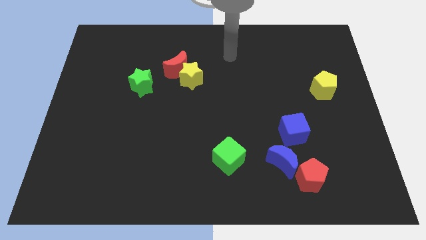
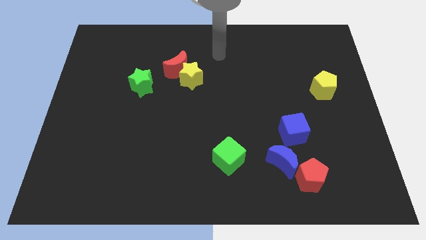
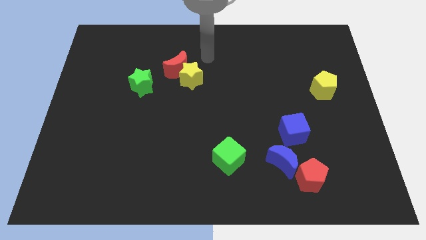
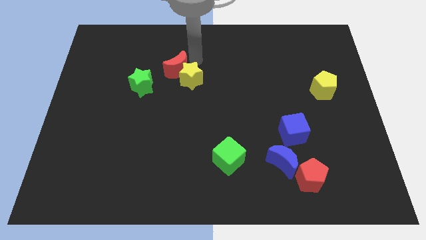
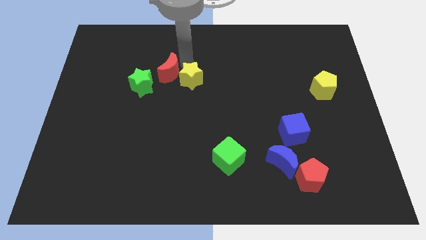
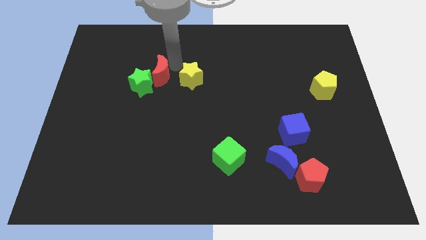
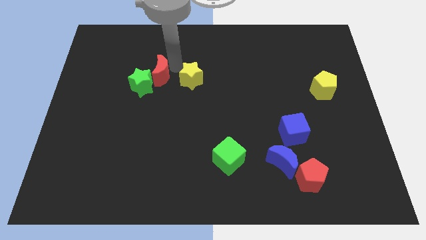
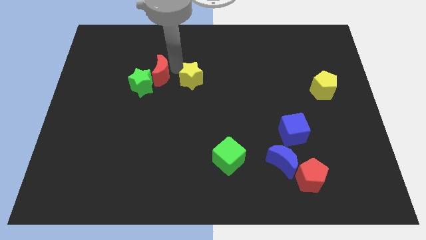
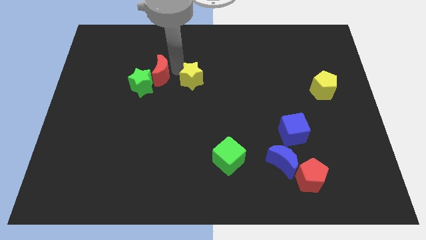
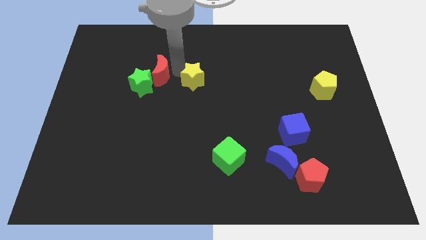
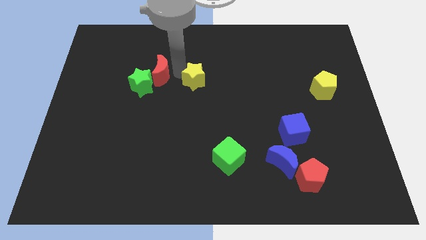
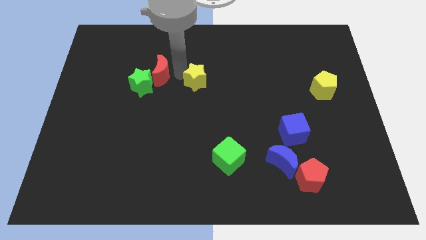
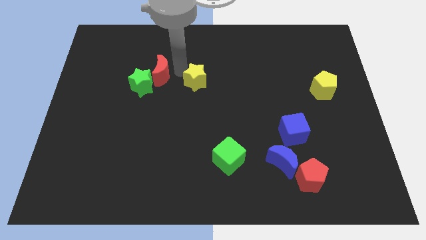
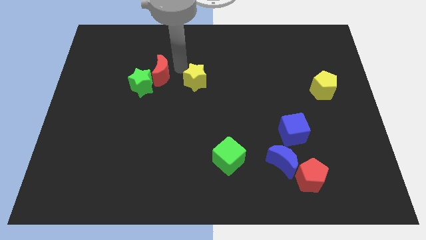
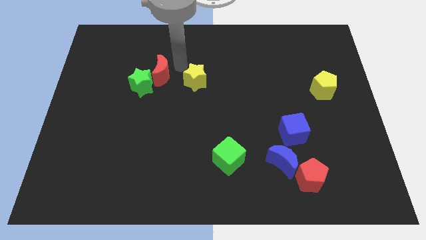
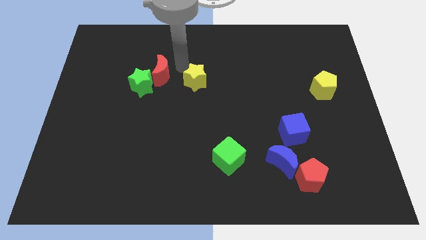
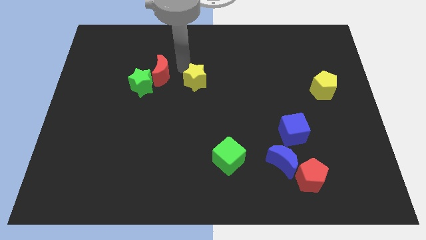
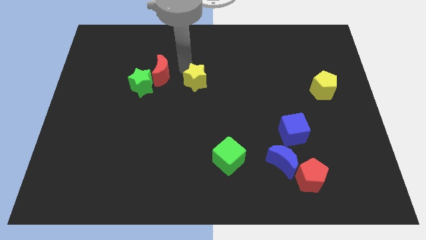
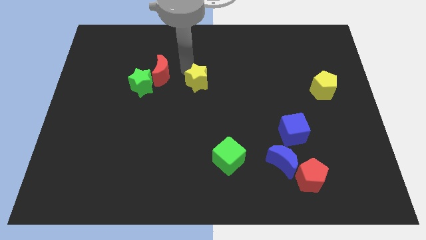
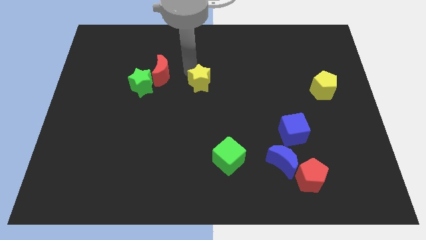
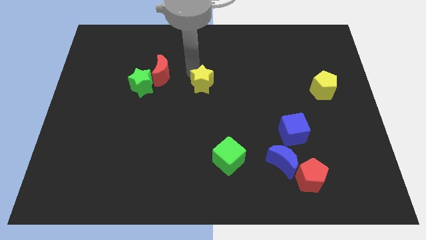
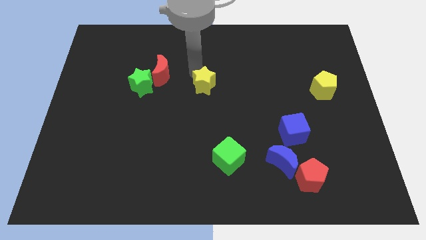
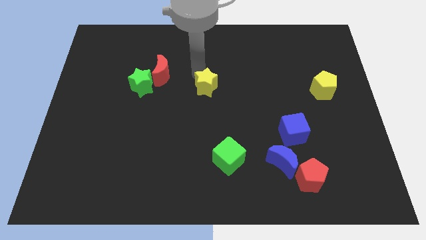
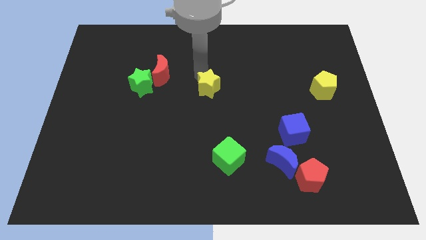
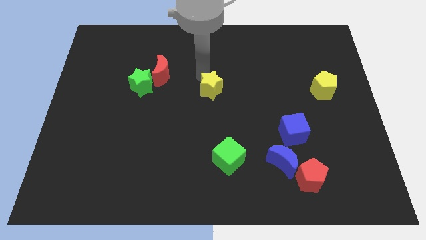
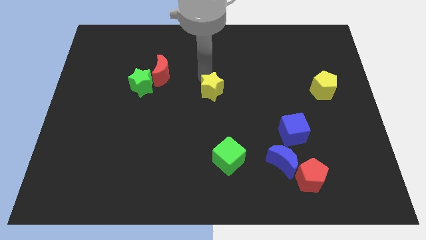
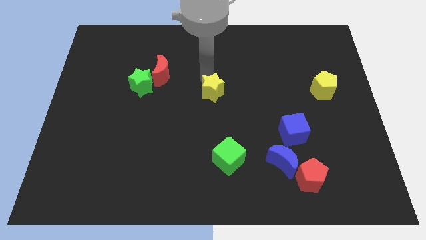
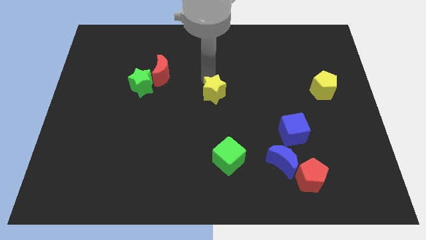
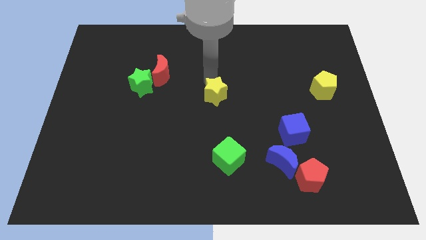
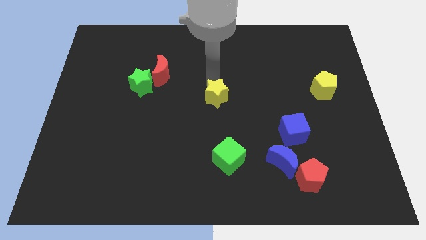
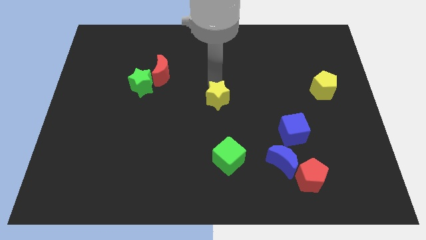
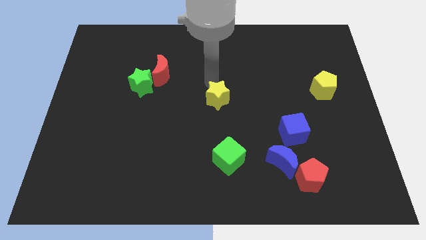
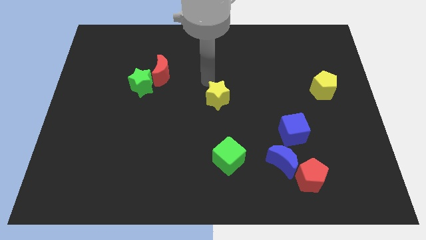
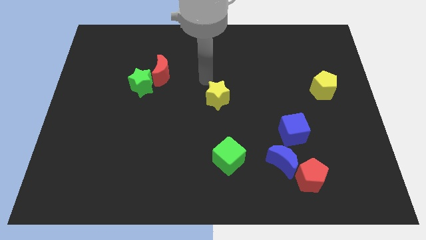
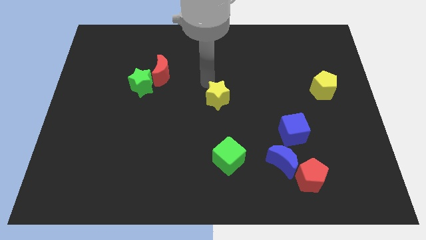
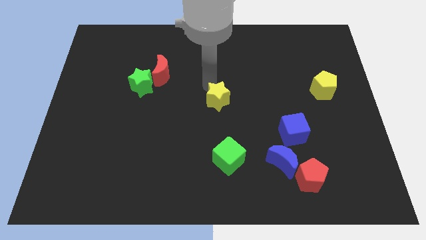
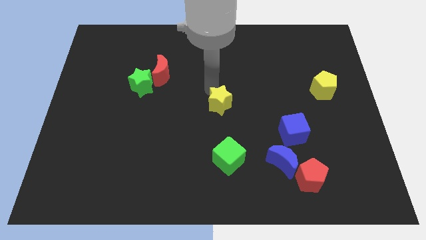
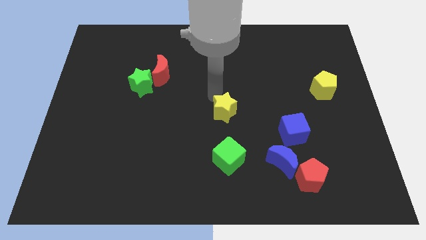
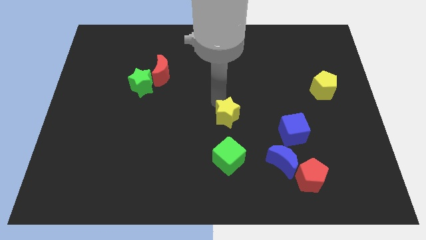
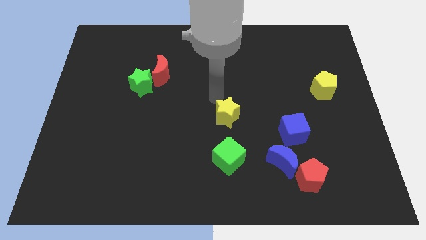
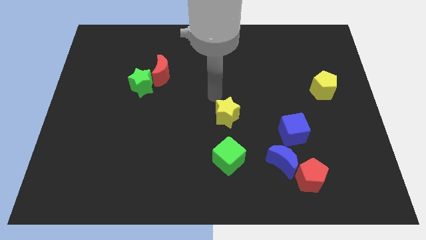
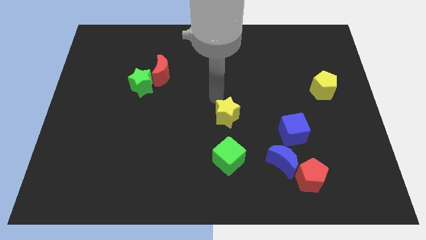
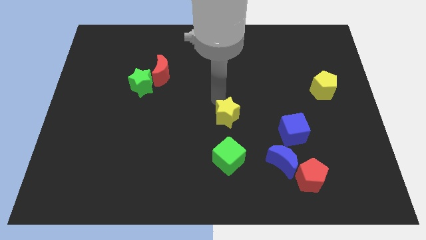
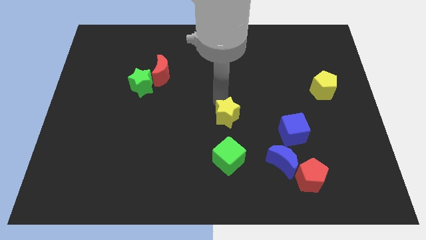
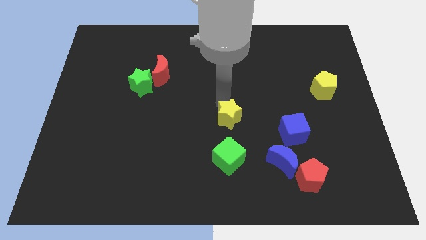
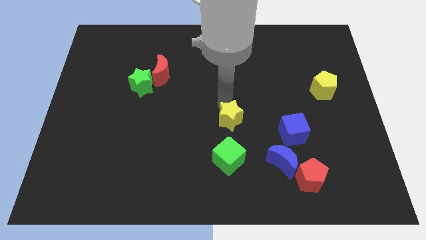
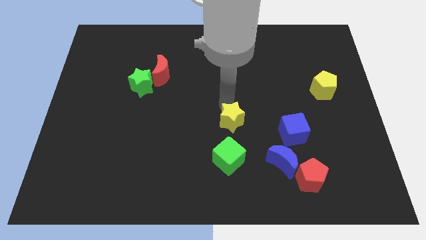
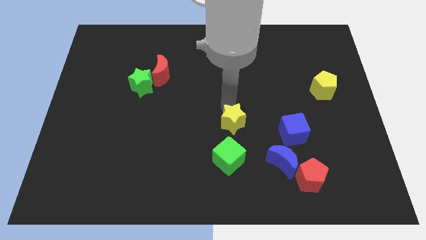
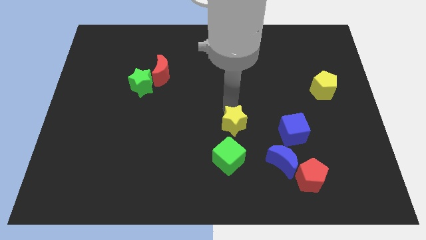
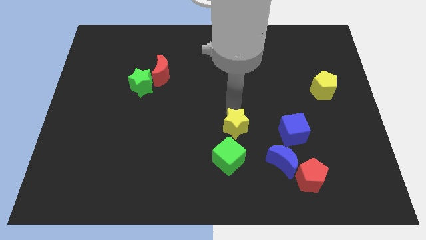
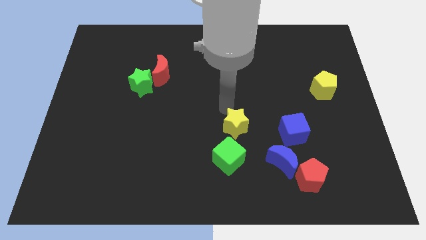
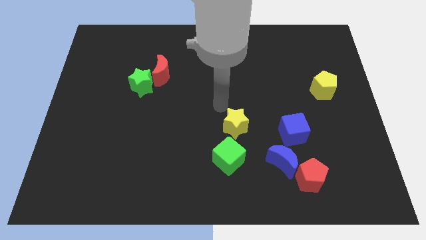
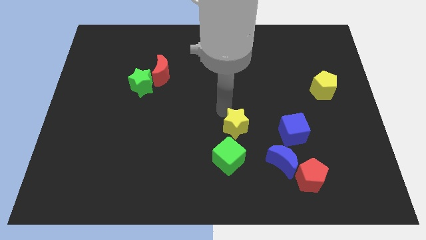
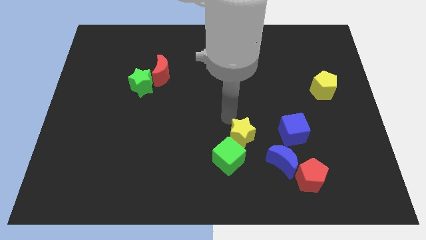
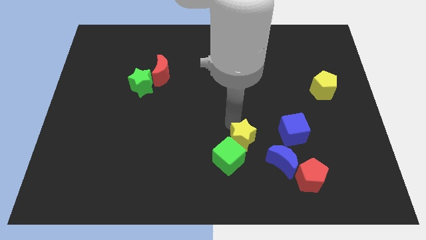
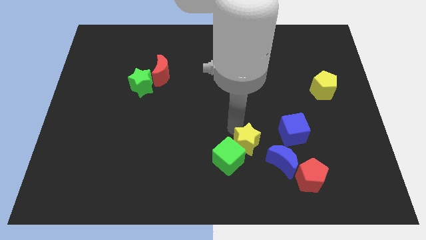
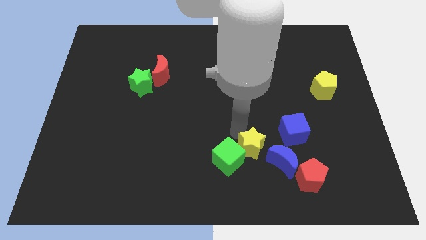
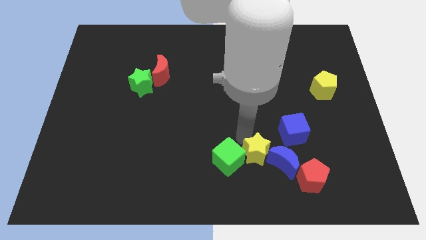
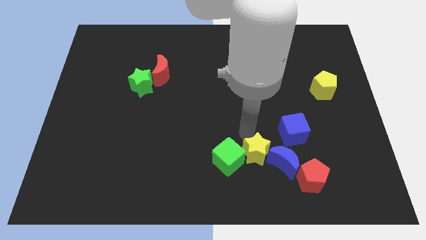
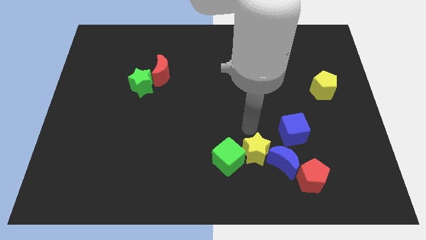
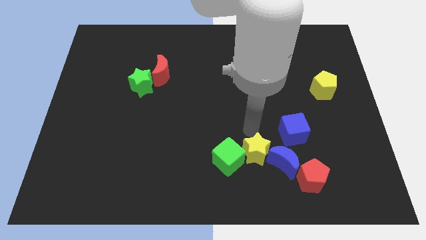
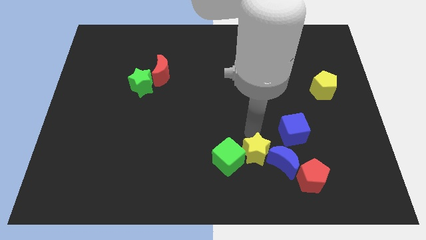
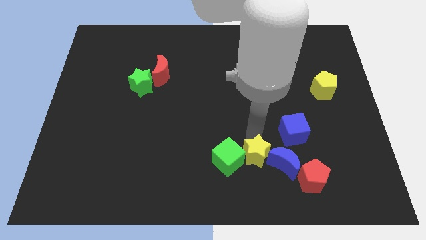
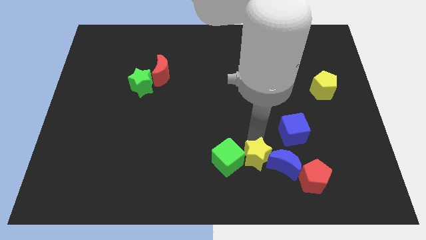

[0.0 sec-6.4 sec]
slide the yellow star left of the red pentagon
